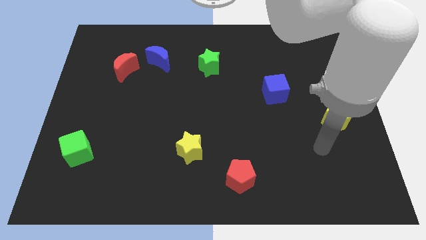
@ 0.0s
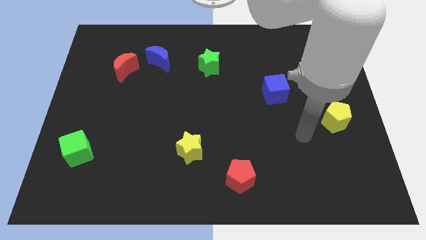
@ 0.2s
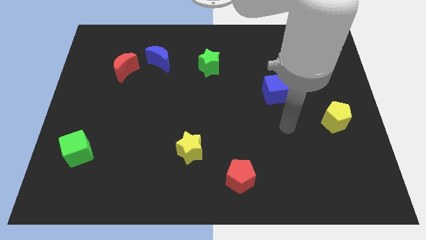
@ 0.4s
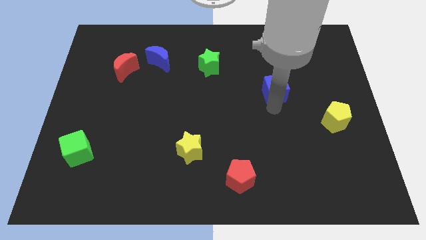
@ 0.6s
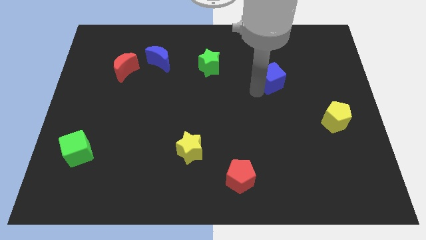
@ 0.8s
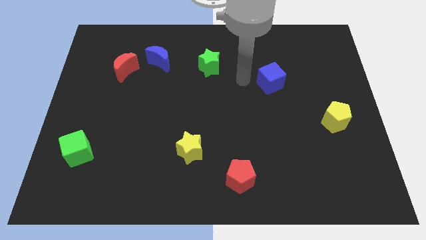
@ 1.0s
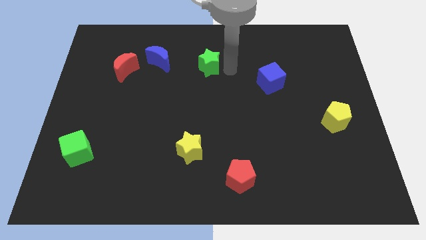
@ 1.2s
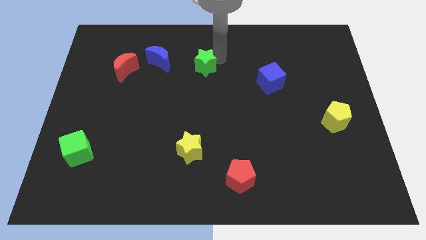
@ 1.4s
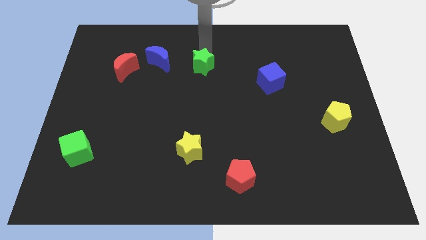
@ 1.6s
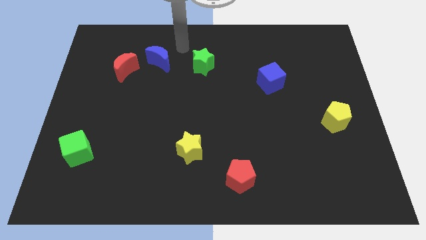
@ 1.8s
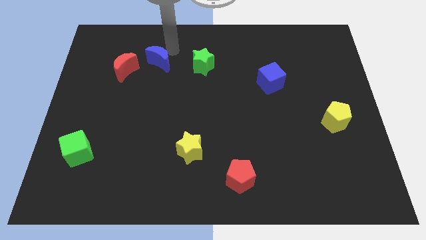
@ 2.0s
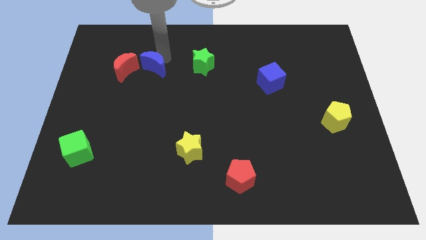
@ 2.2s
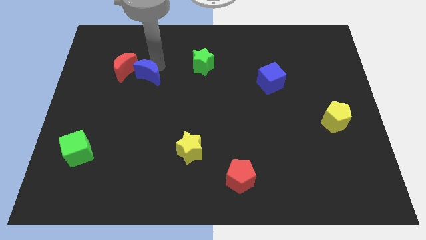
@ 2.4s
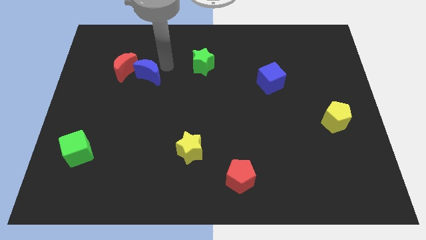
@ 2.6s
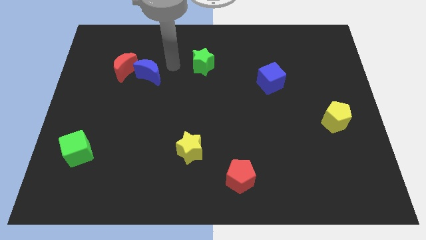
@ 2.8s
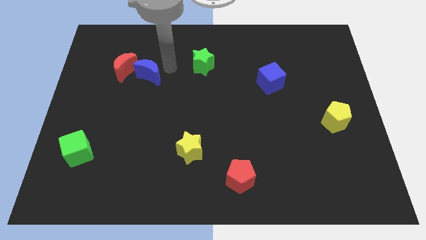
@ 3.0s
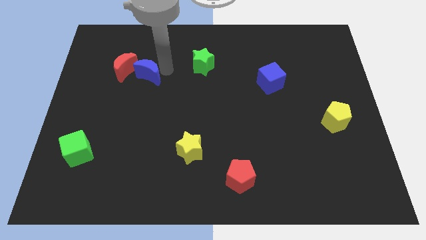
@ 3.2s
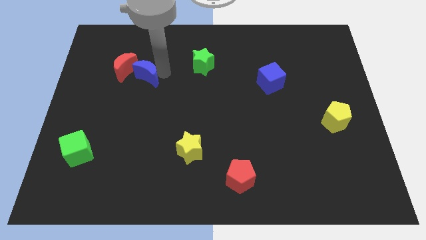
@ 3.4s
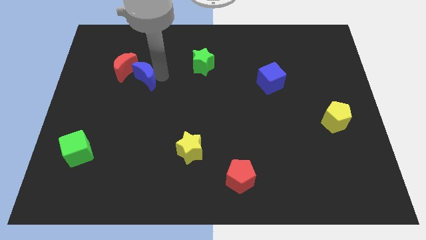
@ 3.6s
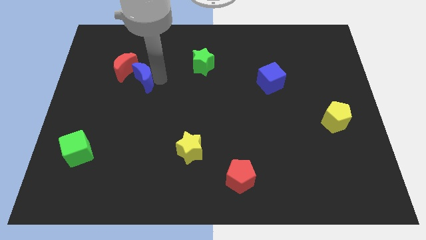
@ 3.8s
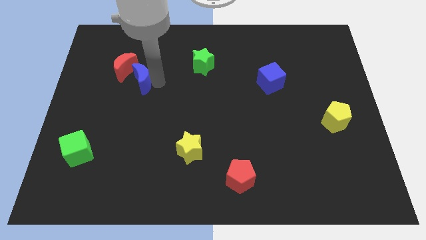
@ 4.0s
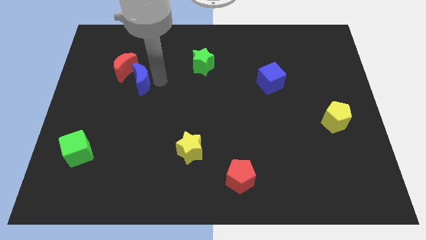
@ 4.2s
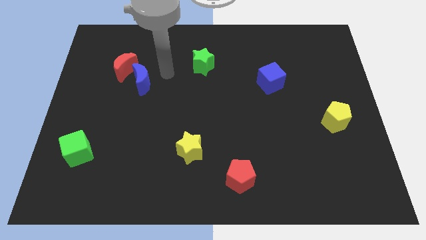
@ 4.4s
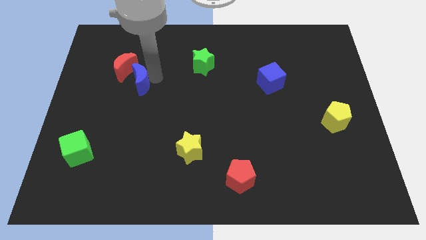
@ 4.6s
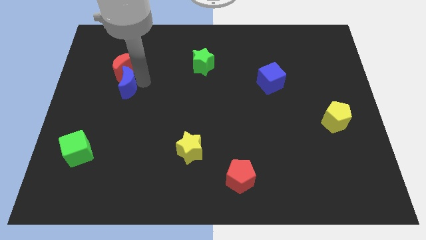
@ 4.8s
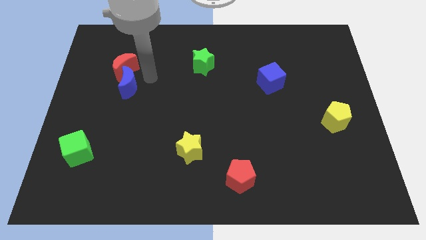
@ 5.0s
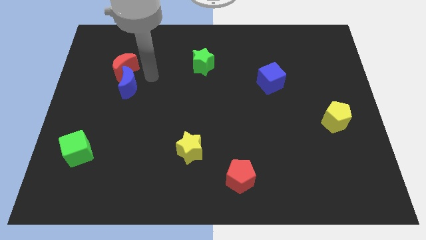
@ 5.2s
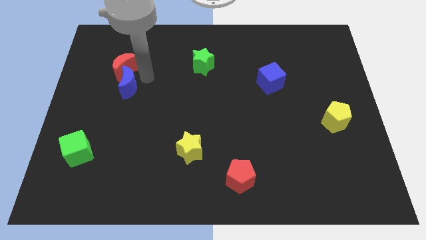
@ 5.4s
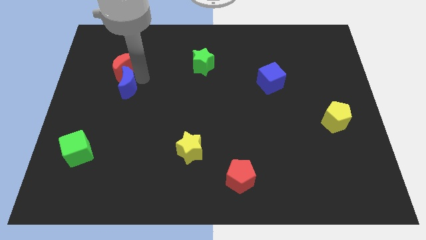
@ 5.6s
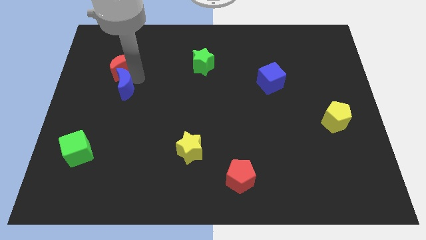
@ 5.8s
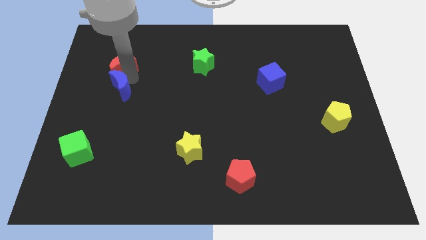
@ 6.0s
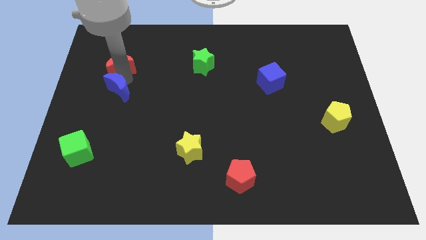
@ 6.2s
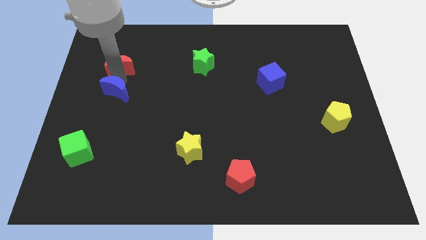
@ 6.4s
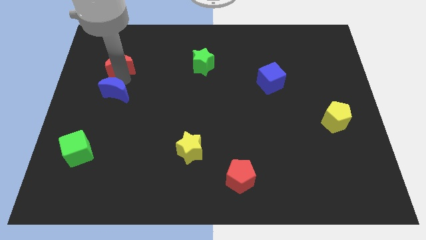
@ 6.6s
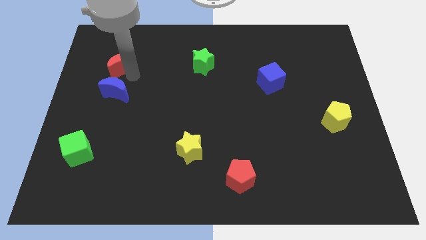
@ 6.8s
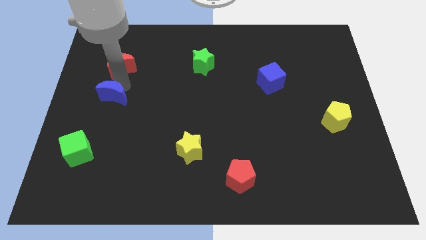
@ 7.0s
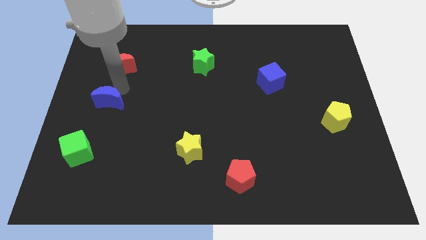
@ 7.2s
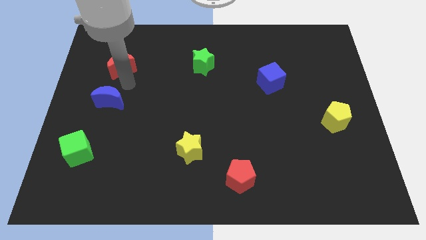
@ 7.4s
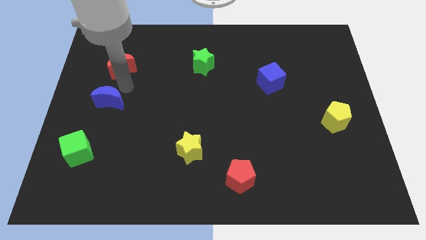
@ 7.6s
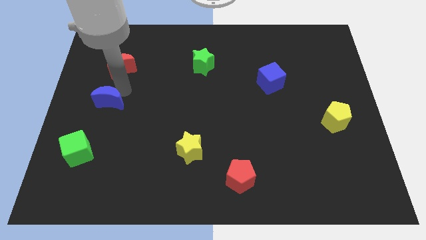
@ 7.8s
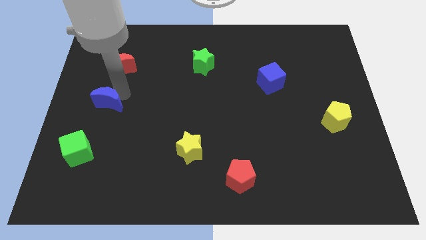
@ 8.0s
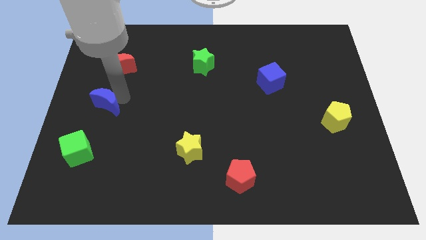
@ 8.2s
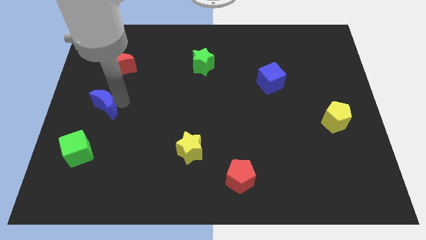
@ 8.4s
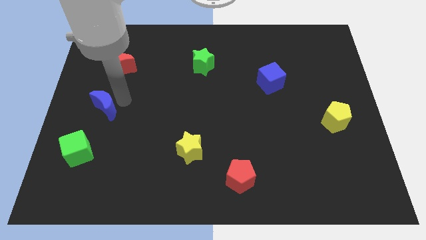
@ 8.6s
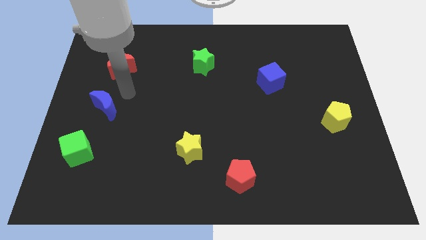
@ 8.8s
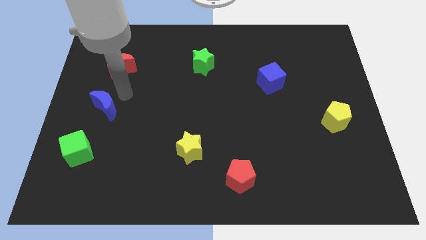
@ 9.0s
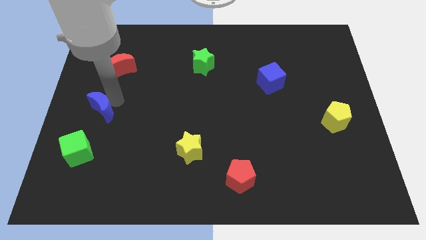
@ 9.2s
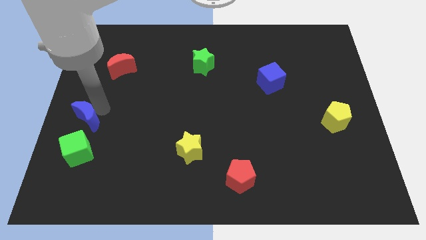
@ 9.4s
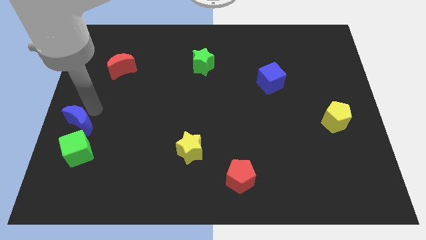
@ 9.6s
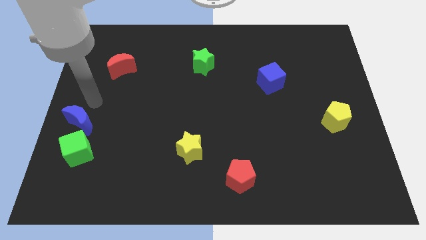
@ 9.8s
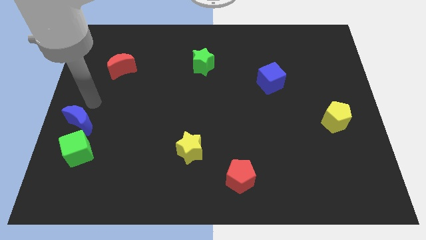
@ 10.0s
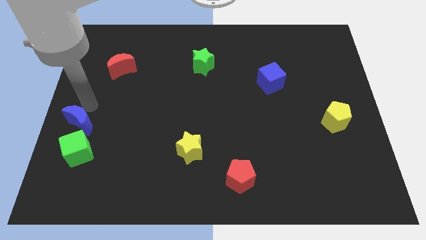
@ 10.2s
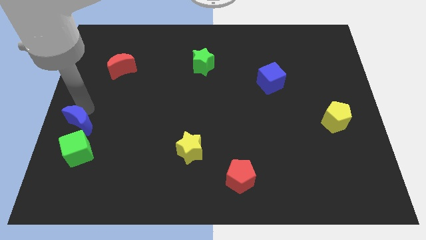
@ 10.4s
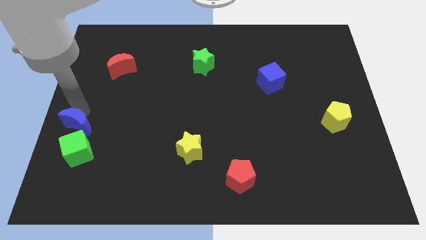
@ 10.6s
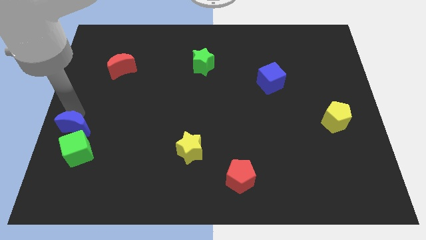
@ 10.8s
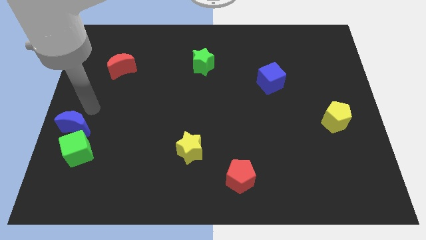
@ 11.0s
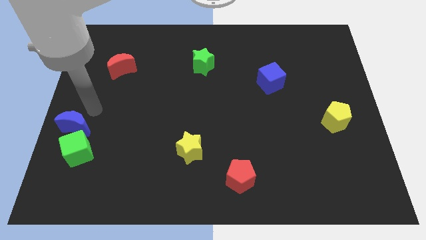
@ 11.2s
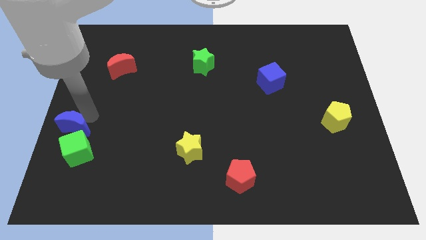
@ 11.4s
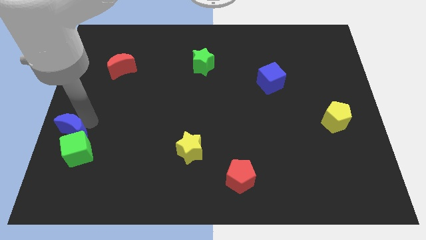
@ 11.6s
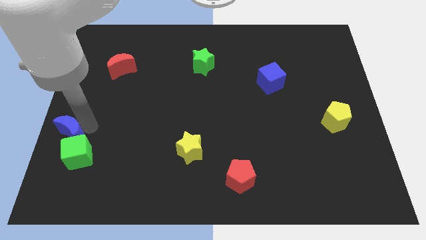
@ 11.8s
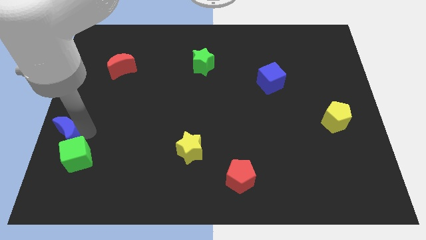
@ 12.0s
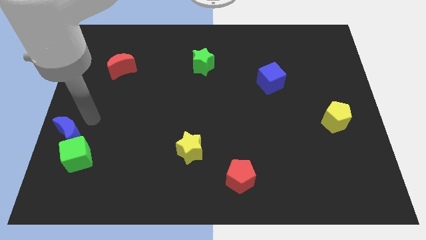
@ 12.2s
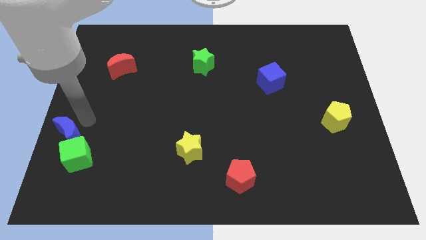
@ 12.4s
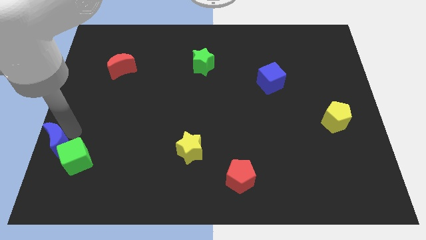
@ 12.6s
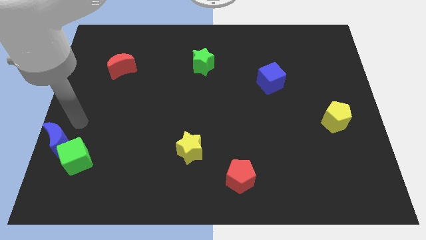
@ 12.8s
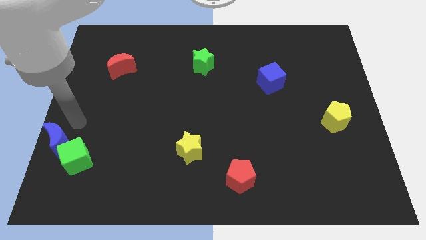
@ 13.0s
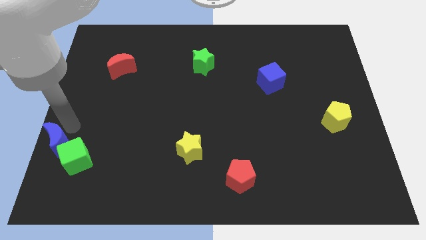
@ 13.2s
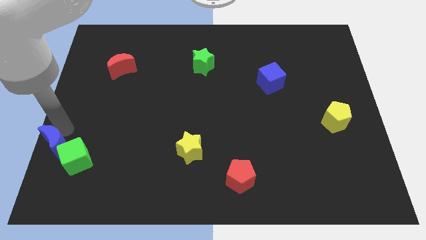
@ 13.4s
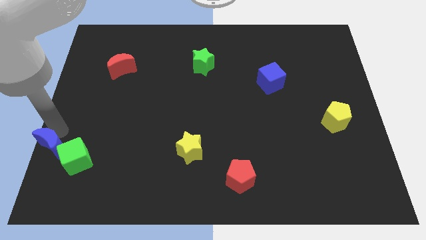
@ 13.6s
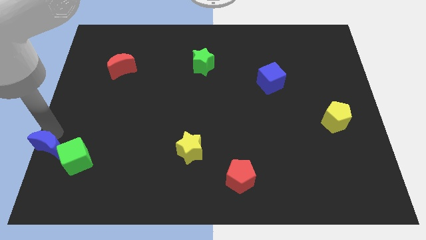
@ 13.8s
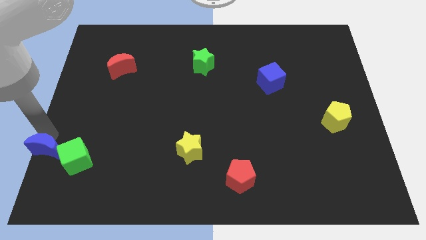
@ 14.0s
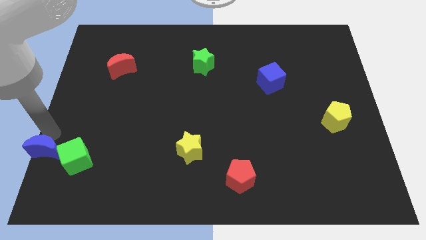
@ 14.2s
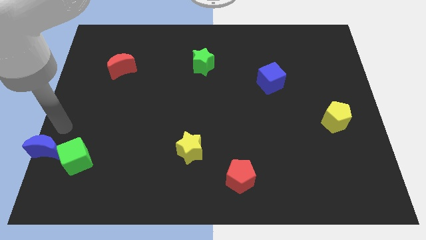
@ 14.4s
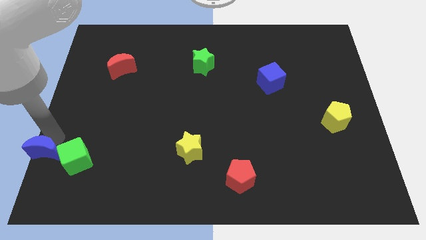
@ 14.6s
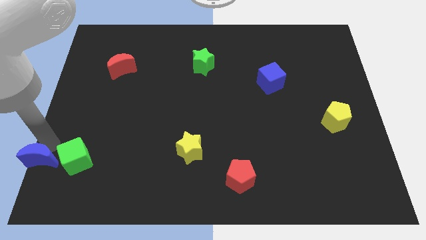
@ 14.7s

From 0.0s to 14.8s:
push the blue moon to the bottom left of the board

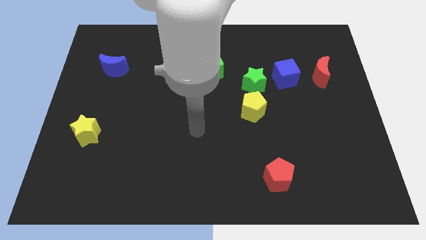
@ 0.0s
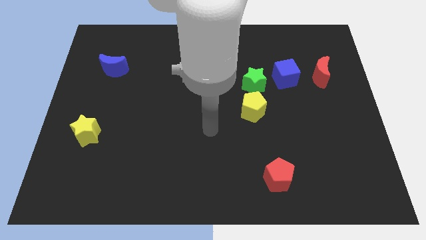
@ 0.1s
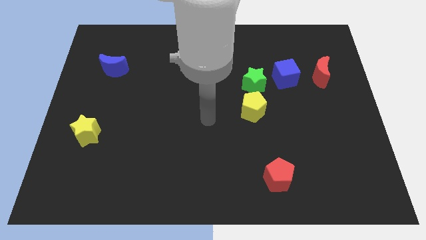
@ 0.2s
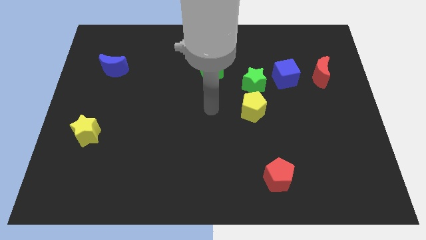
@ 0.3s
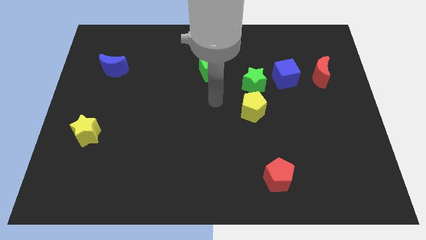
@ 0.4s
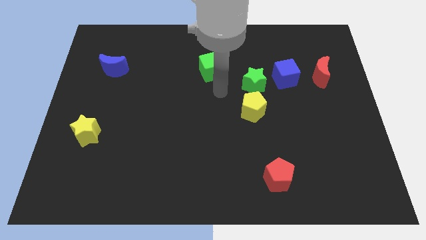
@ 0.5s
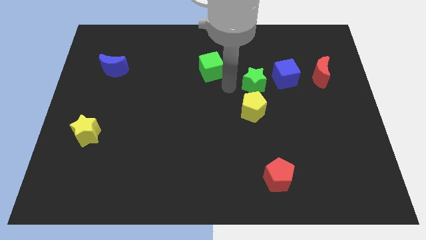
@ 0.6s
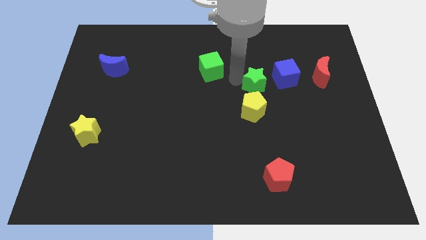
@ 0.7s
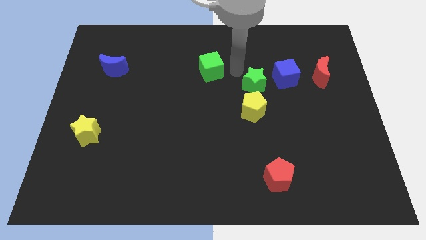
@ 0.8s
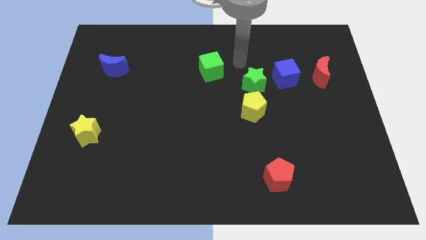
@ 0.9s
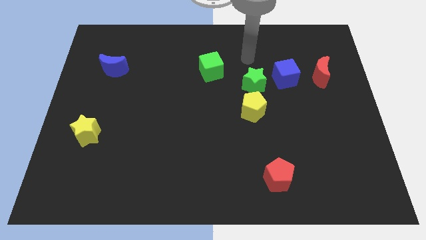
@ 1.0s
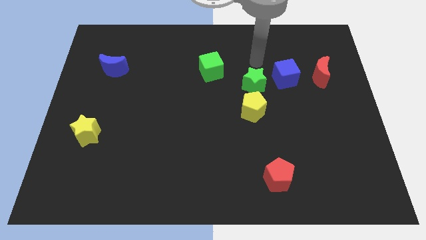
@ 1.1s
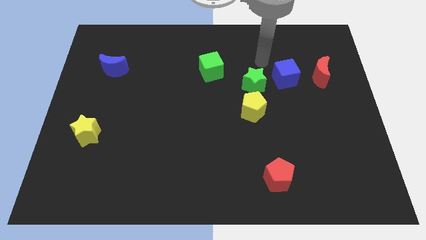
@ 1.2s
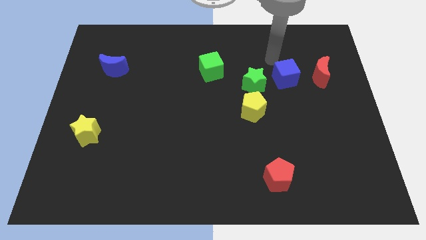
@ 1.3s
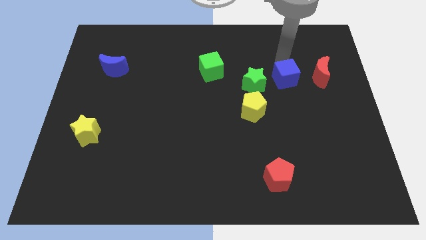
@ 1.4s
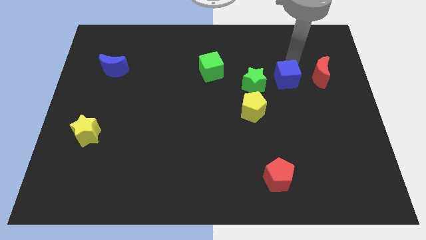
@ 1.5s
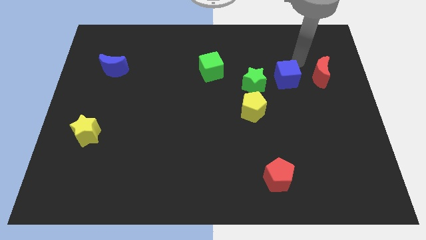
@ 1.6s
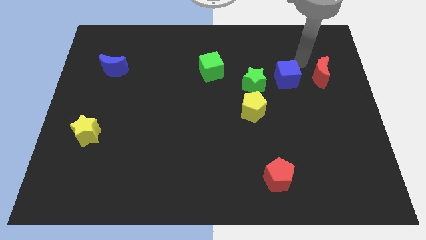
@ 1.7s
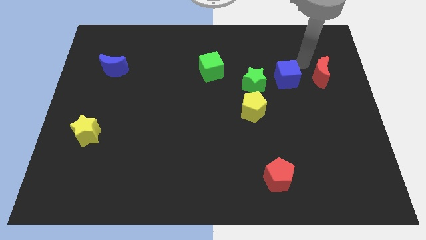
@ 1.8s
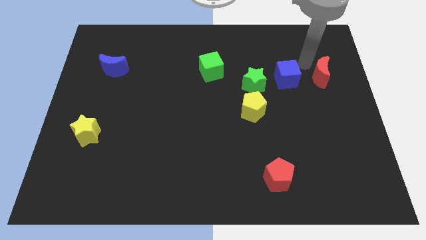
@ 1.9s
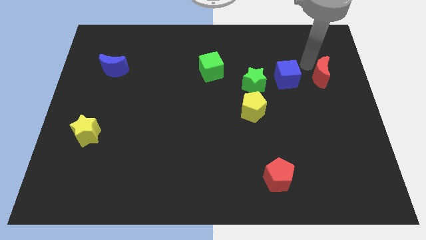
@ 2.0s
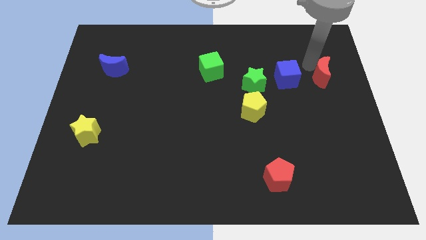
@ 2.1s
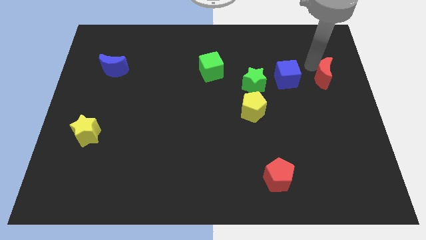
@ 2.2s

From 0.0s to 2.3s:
move the red moon to the center right
